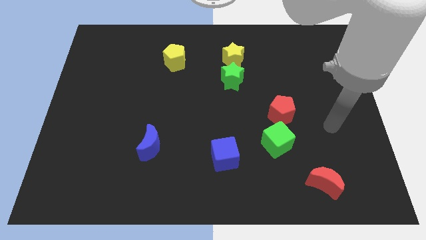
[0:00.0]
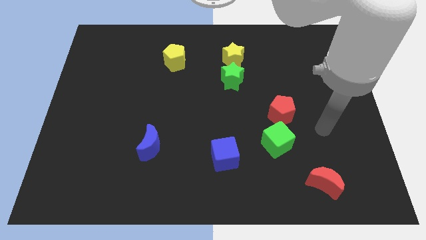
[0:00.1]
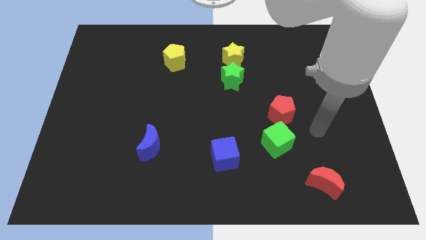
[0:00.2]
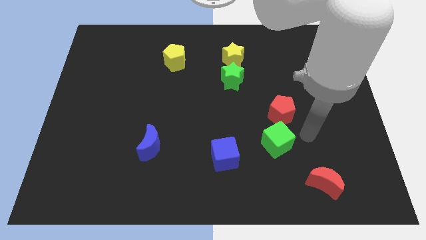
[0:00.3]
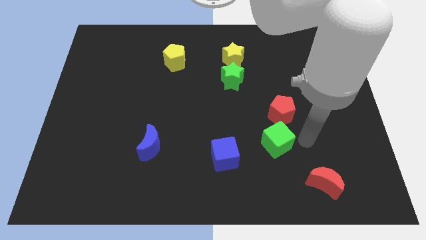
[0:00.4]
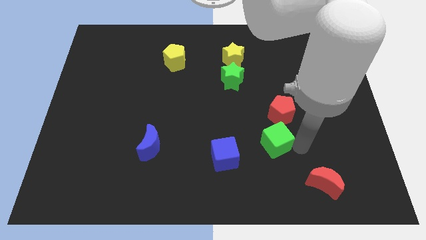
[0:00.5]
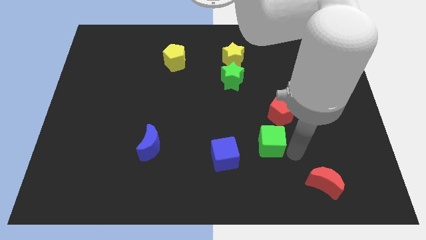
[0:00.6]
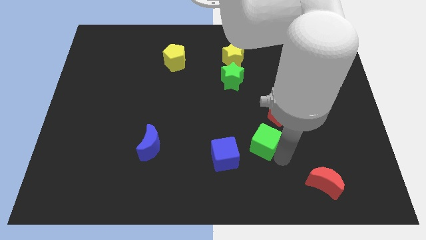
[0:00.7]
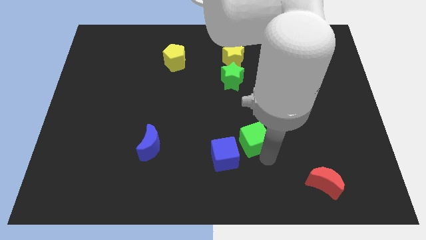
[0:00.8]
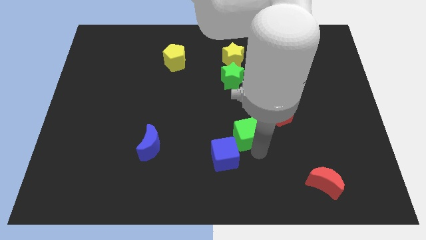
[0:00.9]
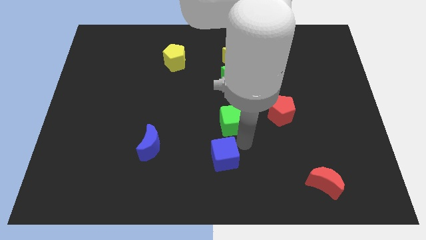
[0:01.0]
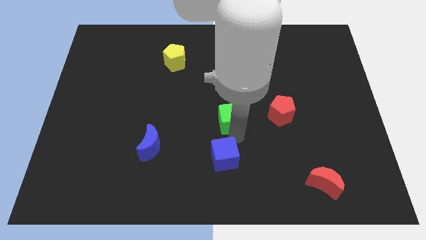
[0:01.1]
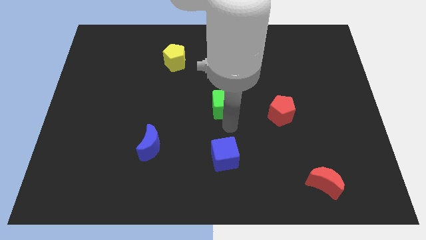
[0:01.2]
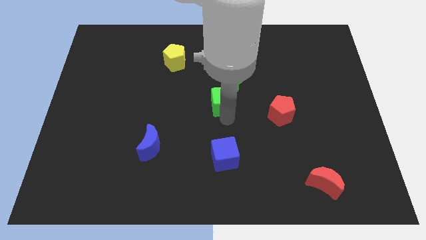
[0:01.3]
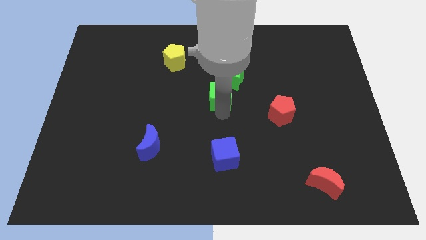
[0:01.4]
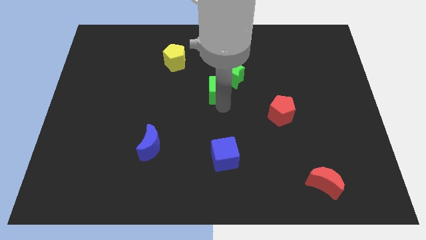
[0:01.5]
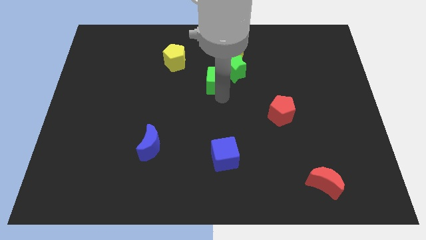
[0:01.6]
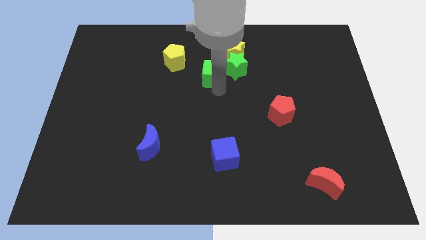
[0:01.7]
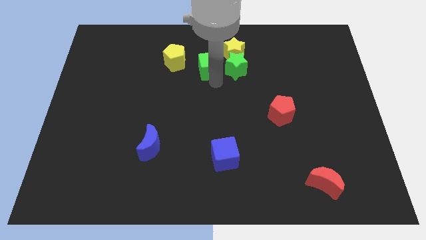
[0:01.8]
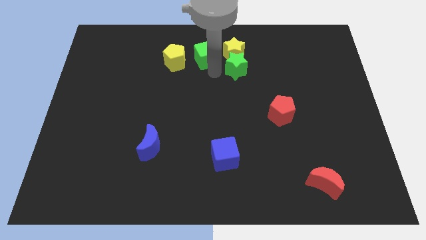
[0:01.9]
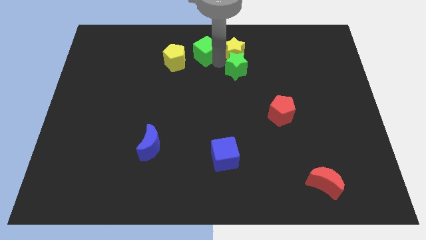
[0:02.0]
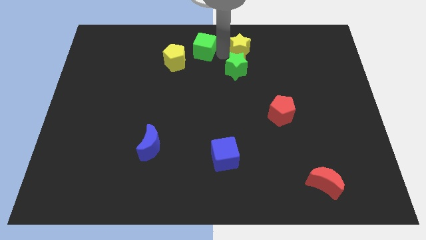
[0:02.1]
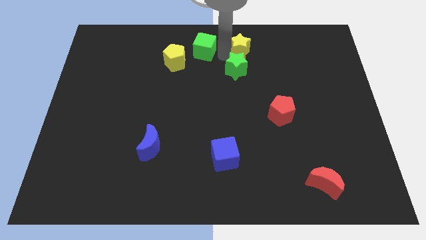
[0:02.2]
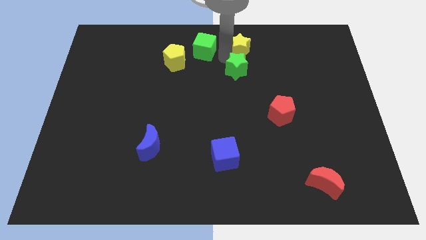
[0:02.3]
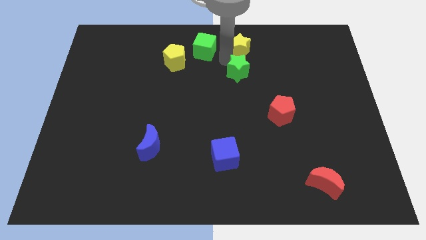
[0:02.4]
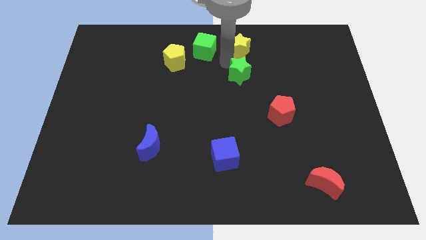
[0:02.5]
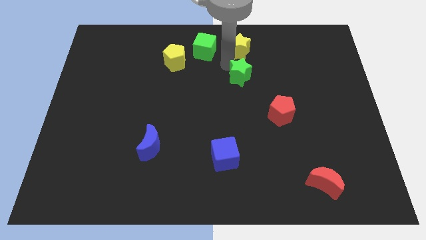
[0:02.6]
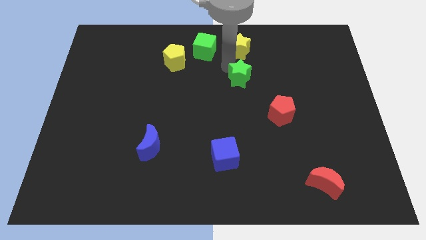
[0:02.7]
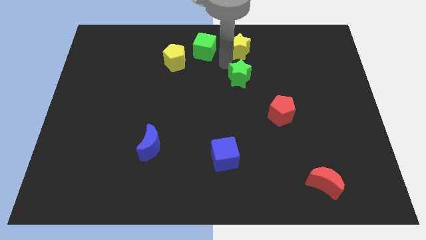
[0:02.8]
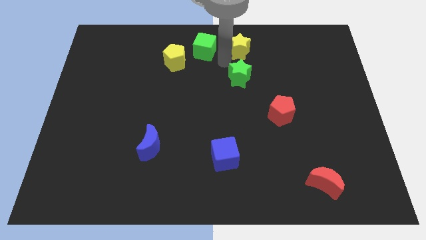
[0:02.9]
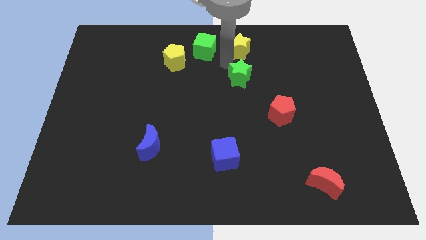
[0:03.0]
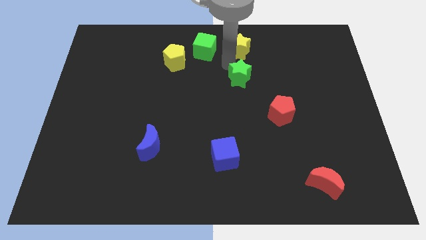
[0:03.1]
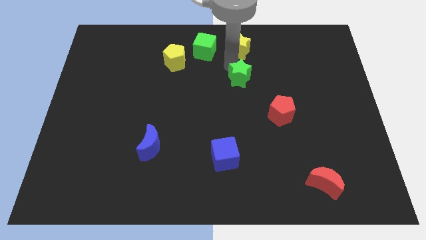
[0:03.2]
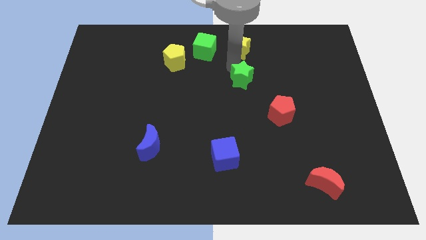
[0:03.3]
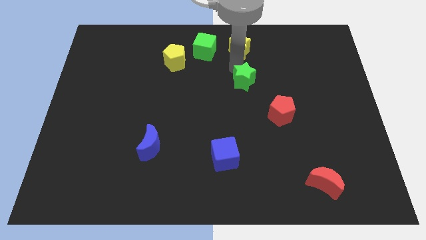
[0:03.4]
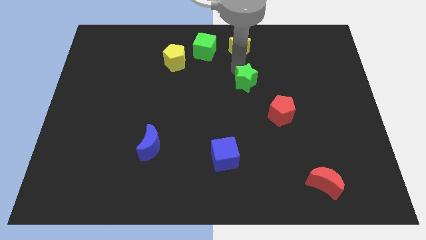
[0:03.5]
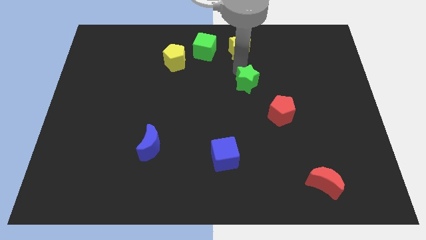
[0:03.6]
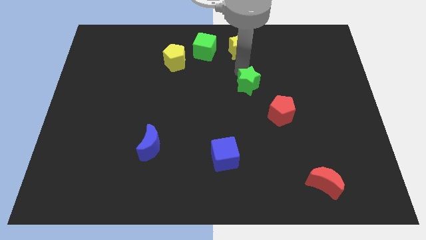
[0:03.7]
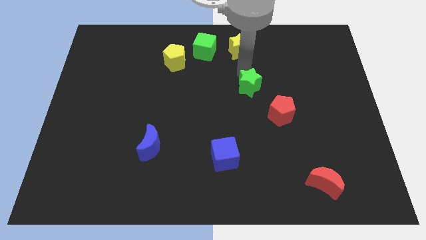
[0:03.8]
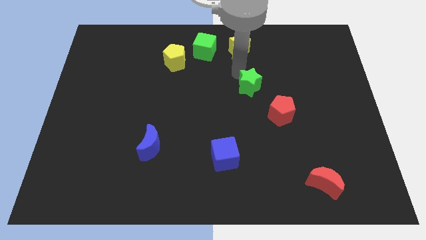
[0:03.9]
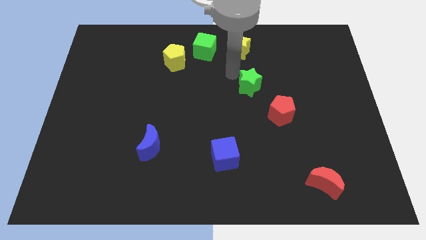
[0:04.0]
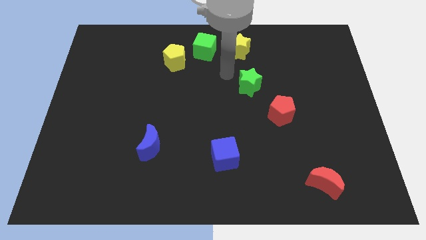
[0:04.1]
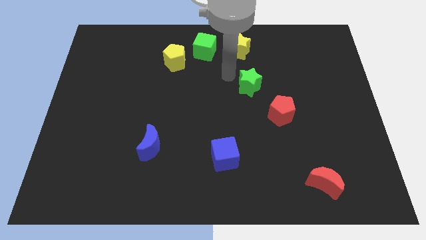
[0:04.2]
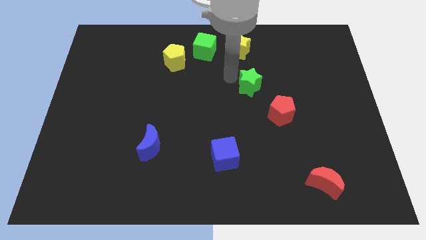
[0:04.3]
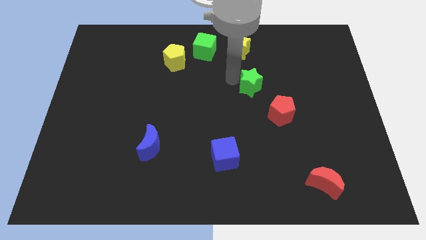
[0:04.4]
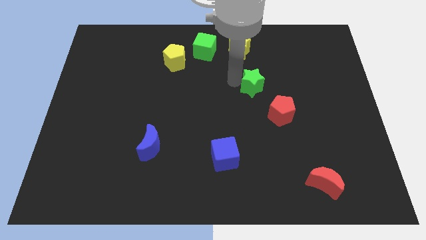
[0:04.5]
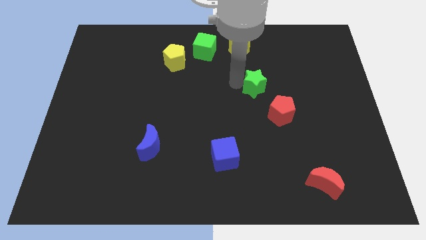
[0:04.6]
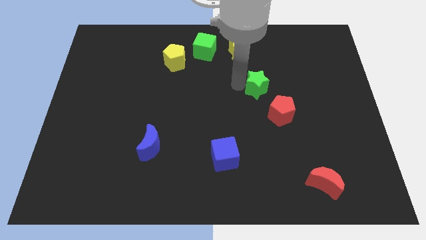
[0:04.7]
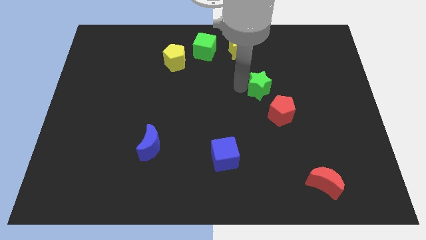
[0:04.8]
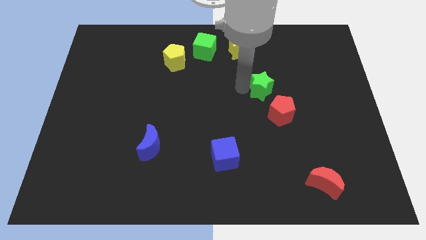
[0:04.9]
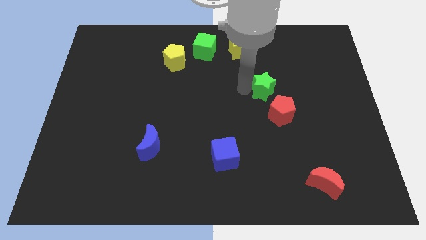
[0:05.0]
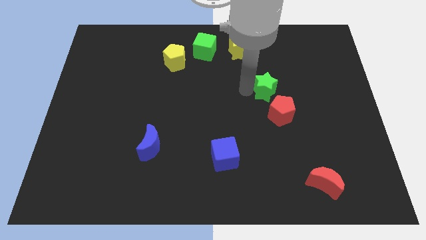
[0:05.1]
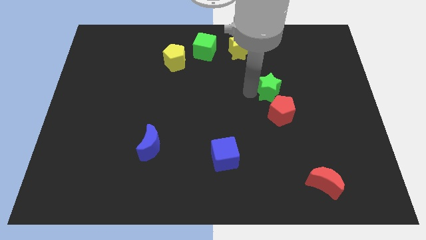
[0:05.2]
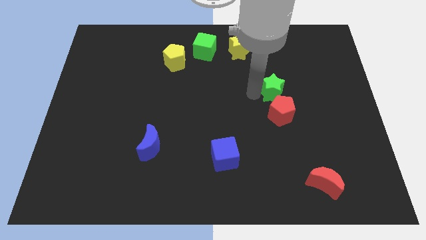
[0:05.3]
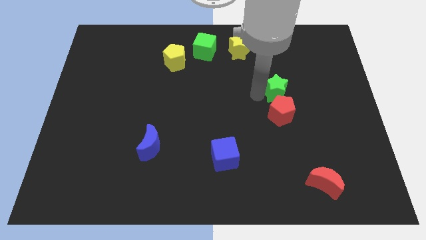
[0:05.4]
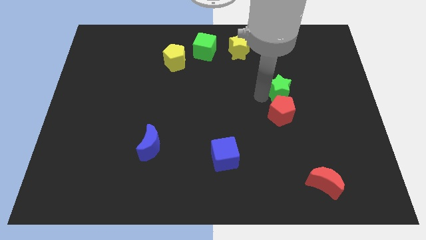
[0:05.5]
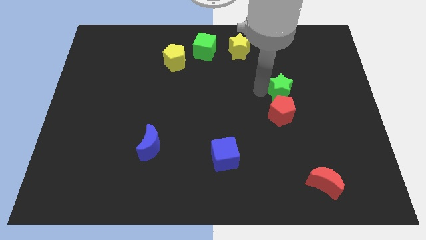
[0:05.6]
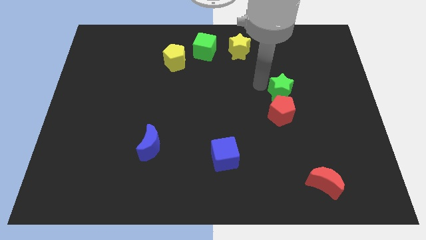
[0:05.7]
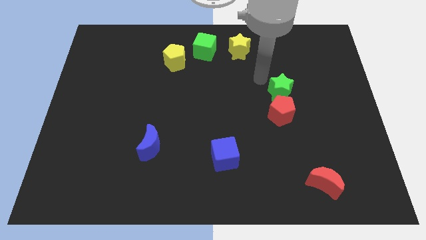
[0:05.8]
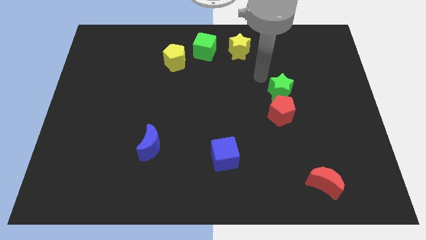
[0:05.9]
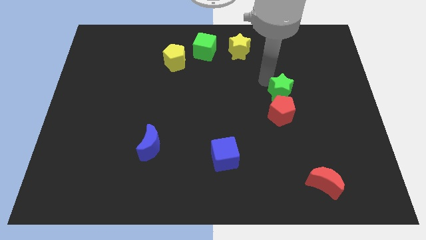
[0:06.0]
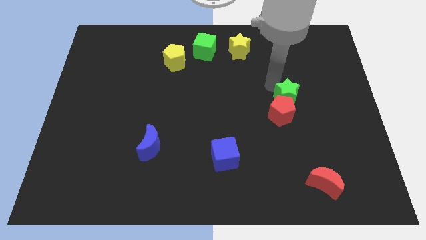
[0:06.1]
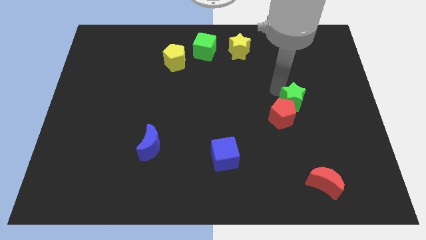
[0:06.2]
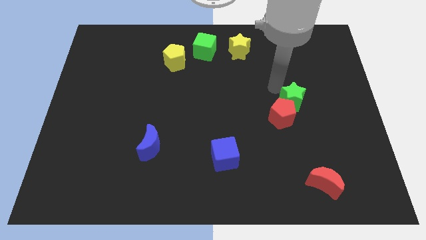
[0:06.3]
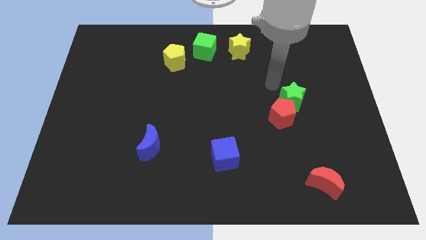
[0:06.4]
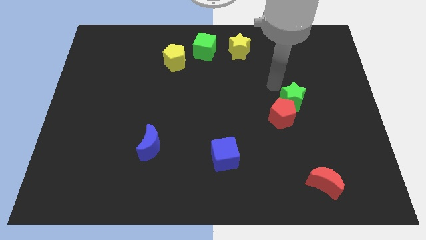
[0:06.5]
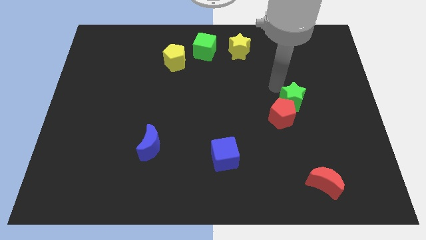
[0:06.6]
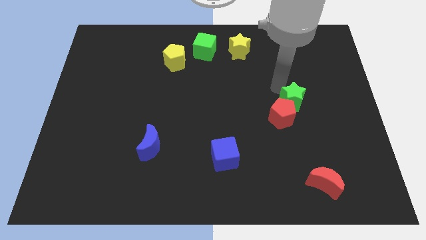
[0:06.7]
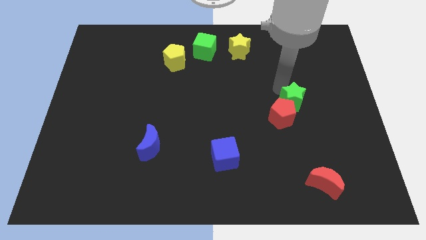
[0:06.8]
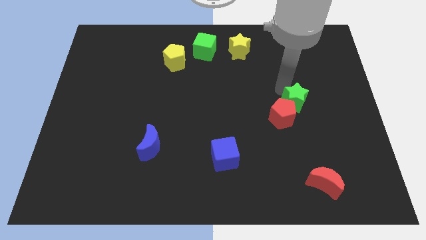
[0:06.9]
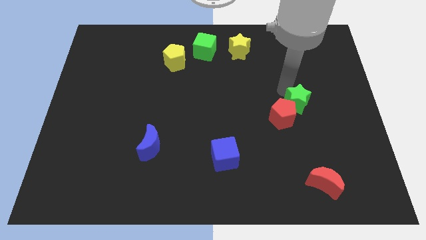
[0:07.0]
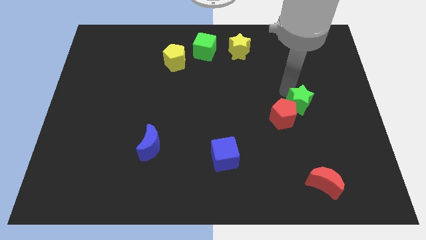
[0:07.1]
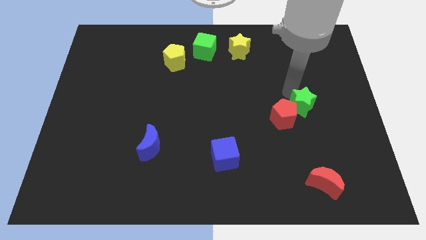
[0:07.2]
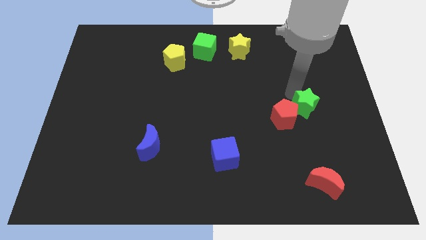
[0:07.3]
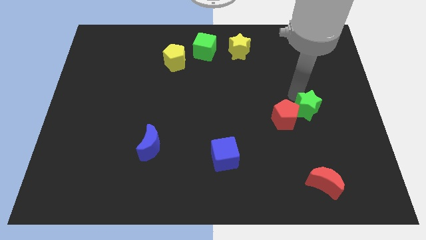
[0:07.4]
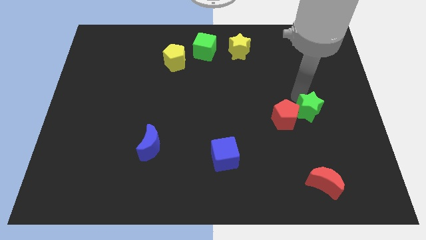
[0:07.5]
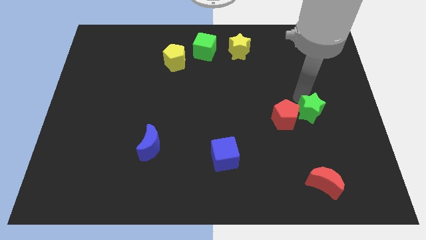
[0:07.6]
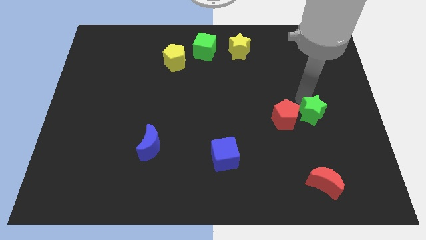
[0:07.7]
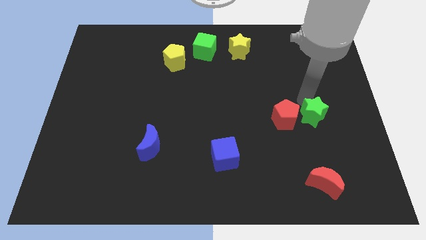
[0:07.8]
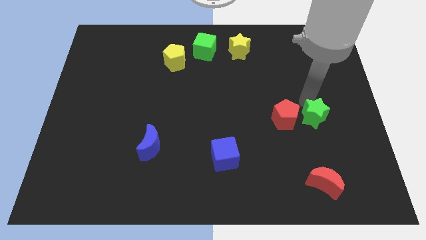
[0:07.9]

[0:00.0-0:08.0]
push the green star diagonally down and right
